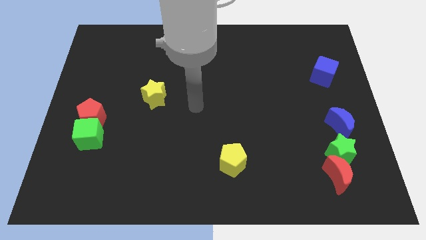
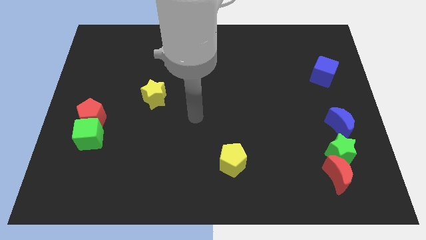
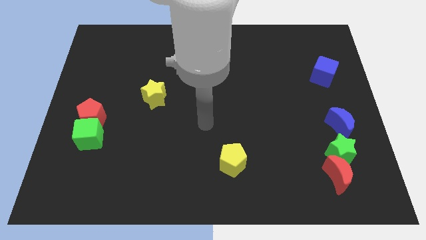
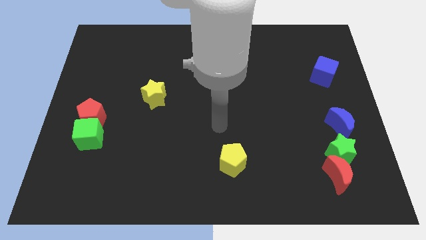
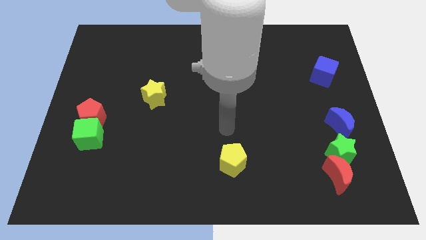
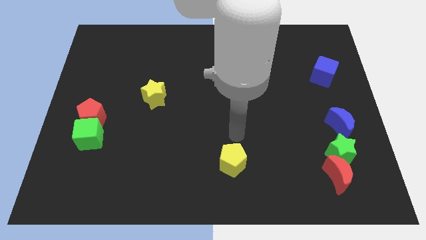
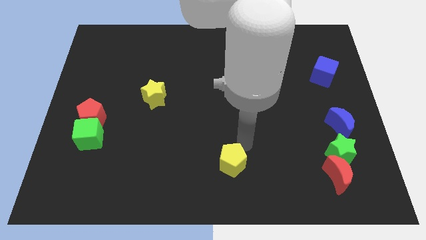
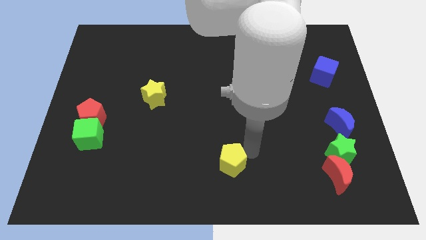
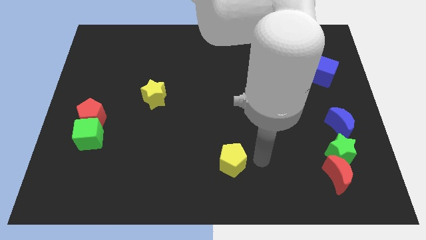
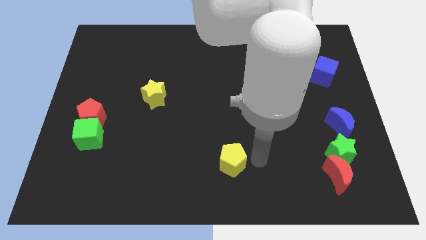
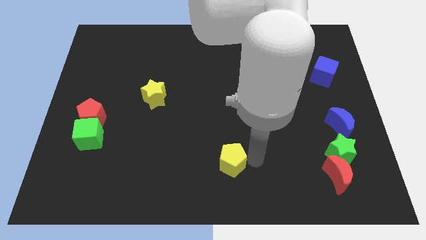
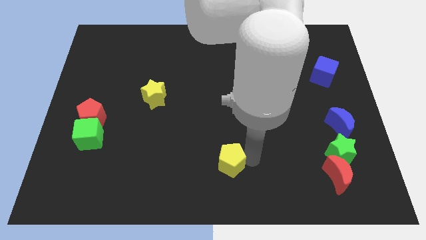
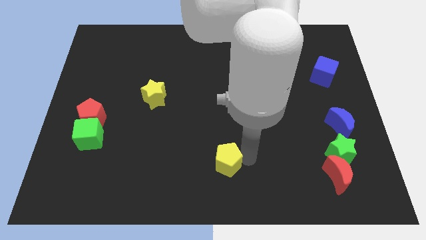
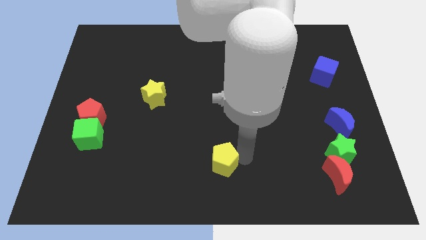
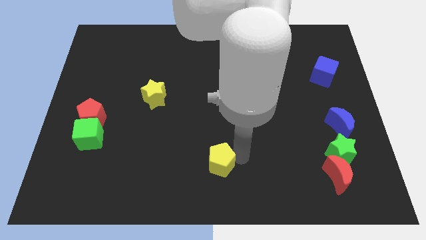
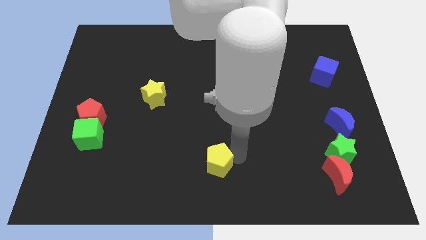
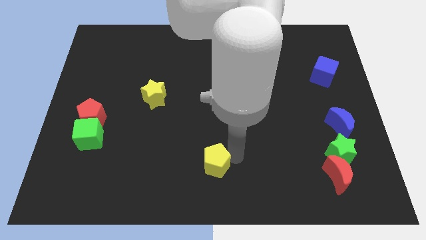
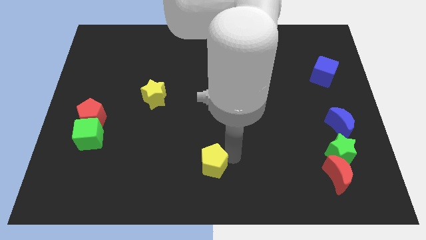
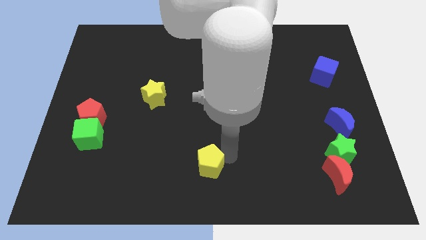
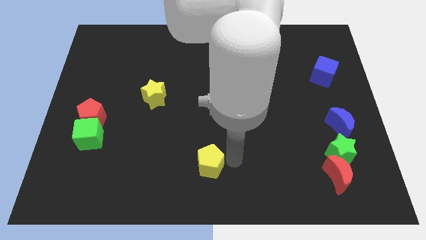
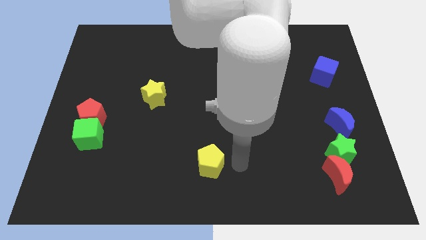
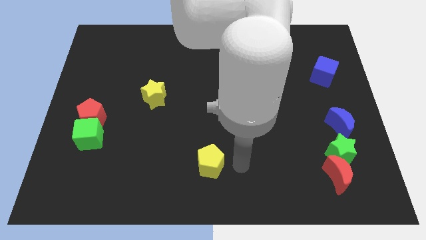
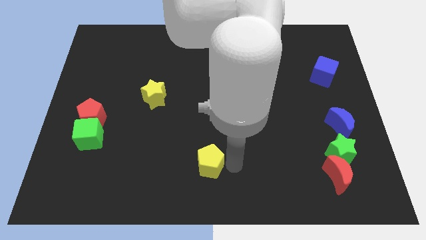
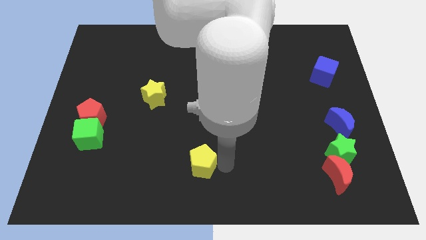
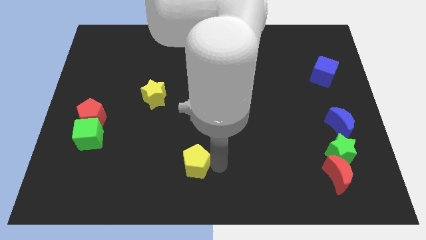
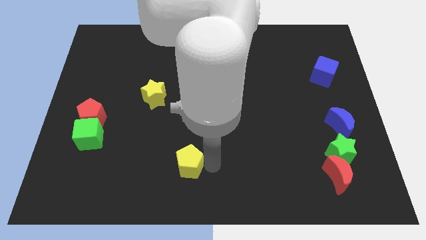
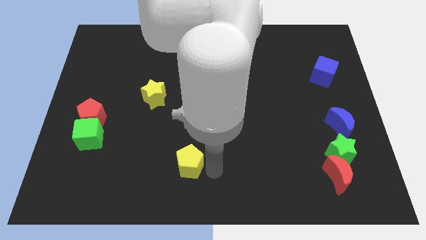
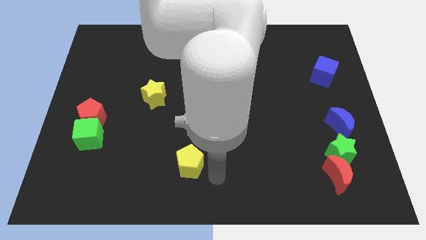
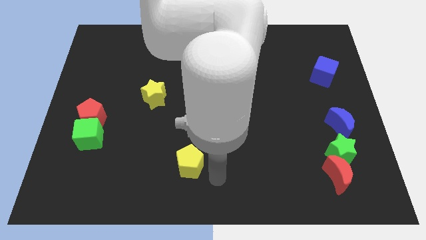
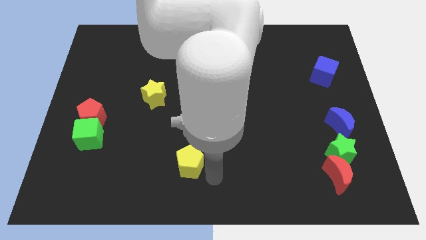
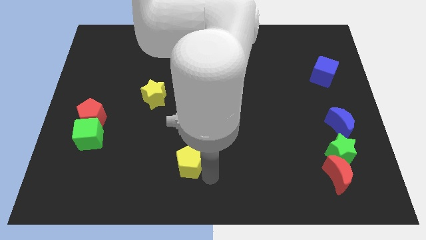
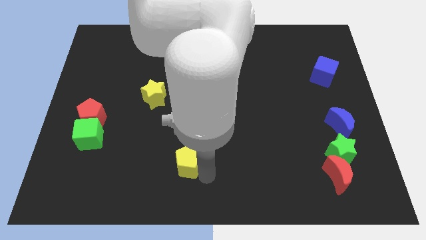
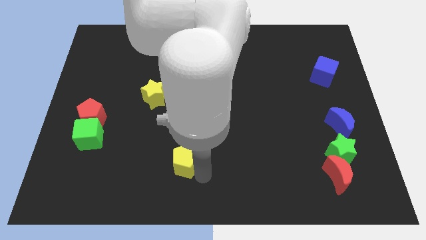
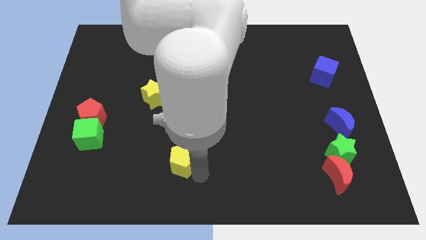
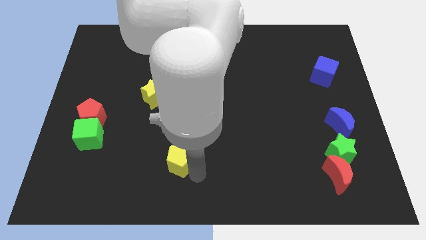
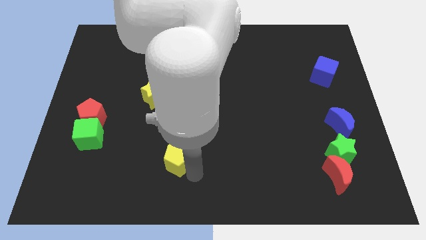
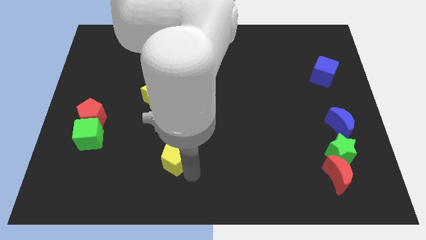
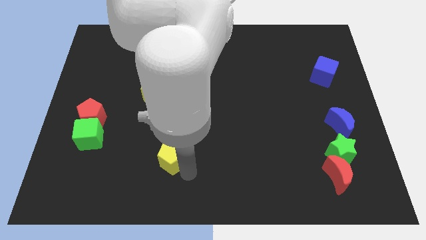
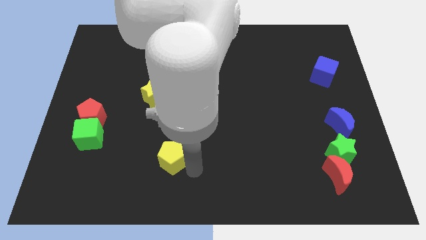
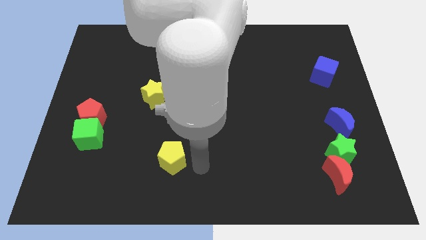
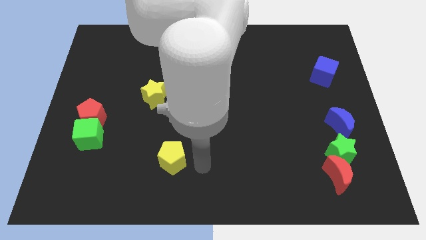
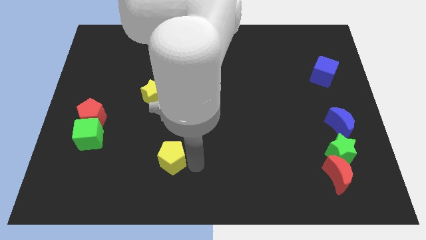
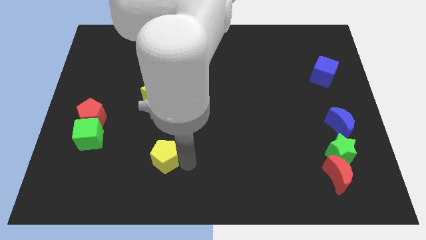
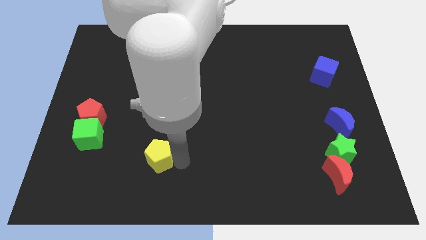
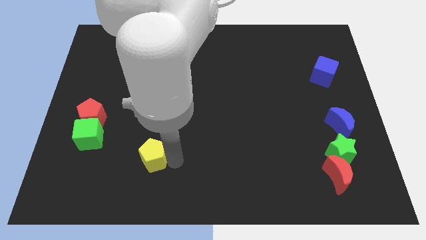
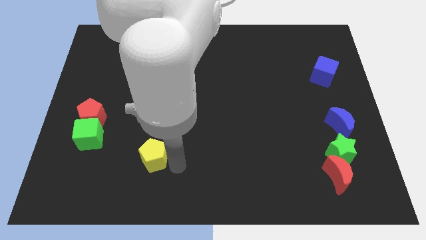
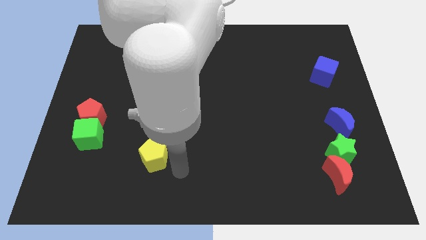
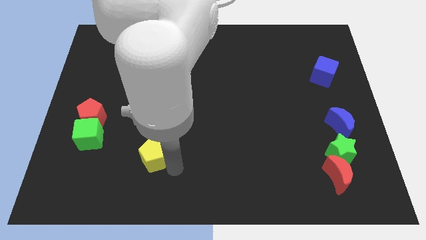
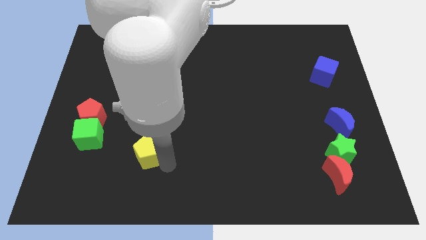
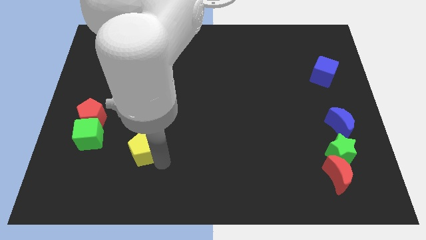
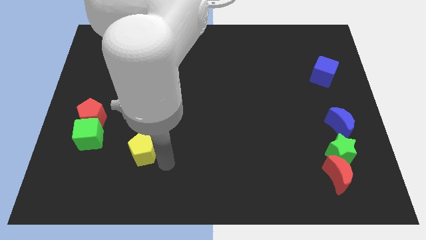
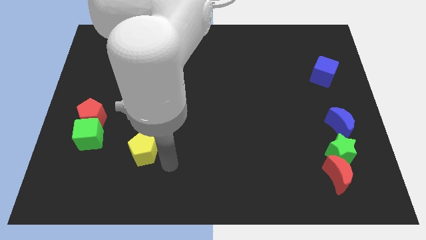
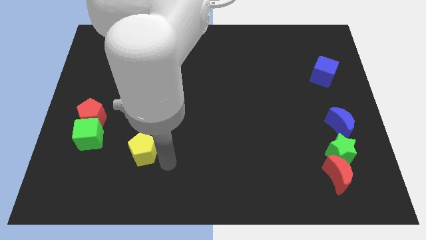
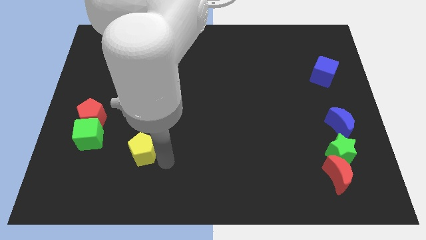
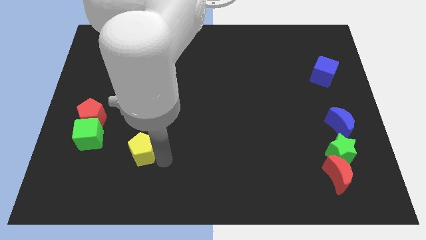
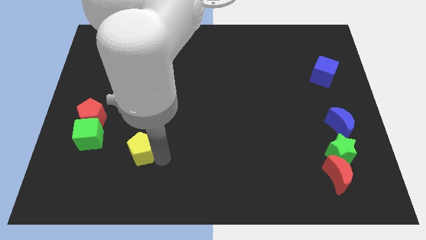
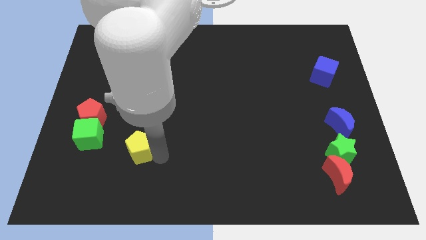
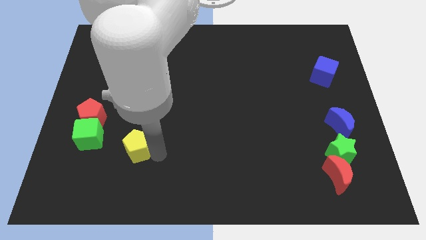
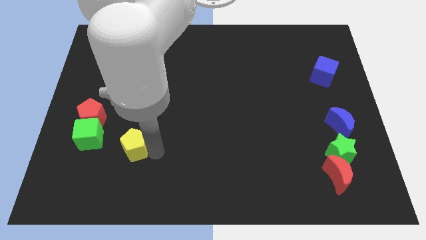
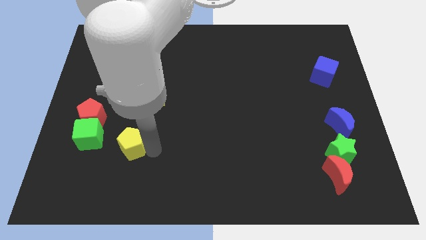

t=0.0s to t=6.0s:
slide the yellow pentagon to the bottom right side of the red pentagon

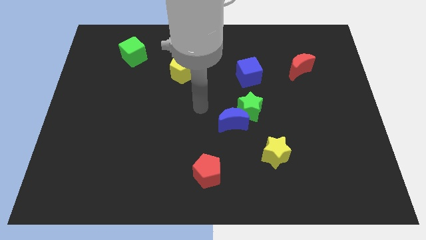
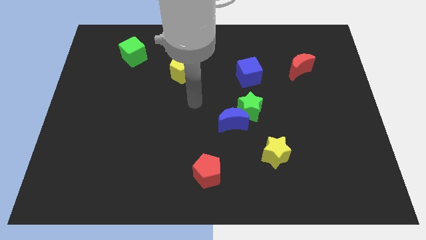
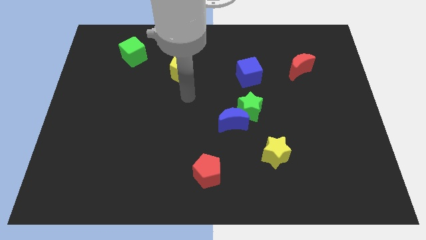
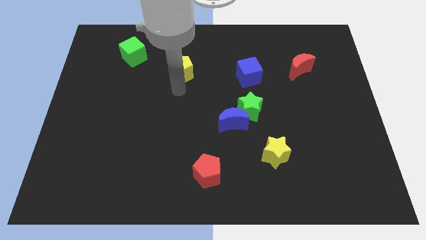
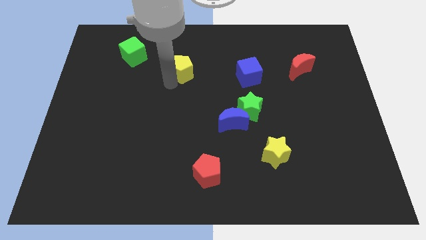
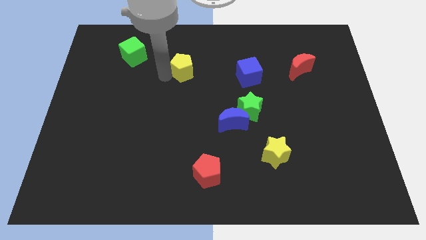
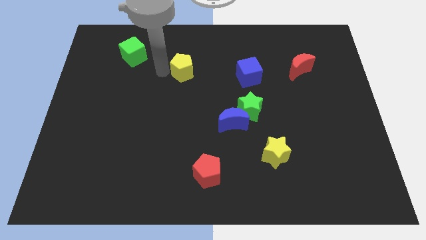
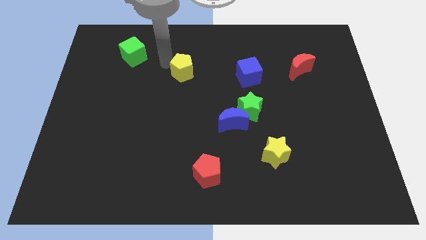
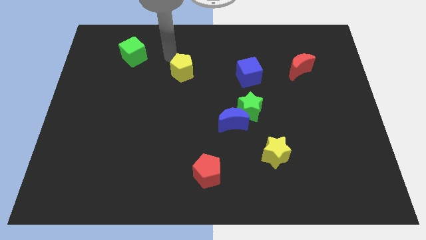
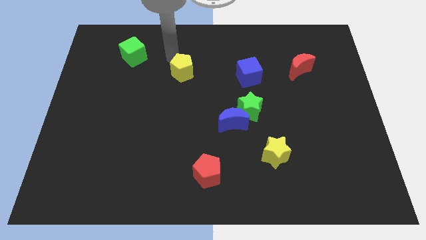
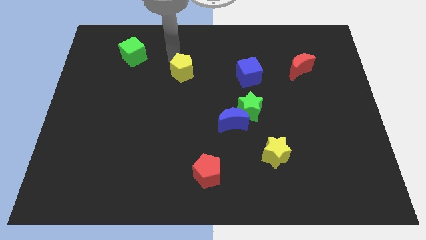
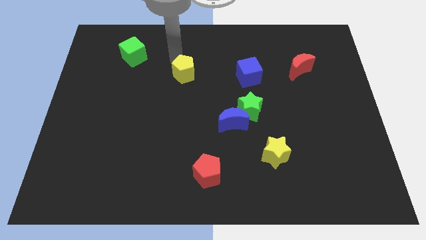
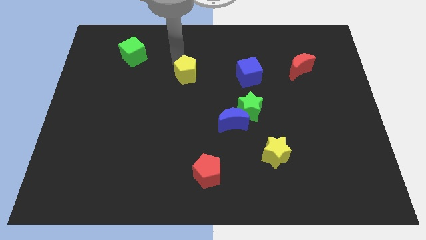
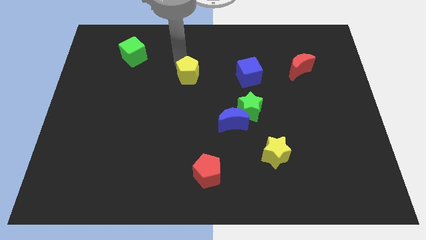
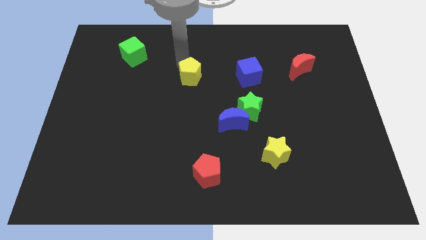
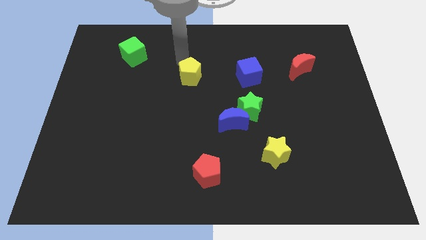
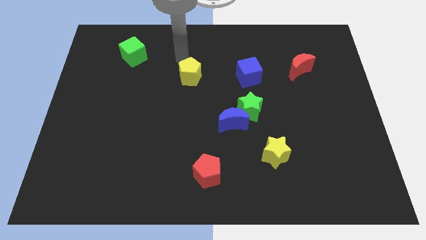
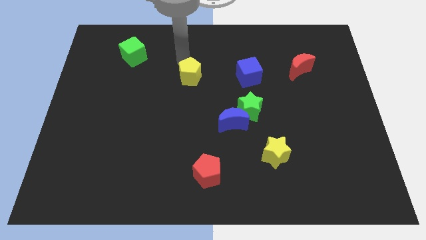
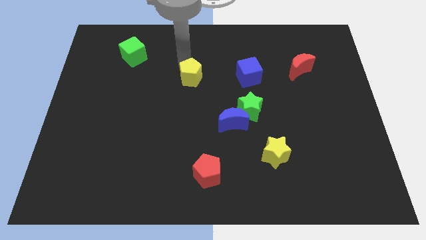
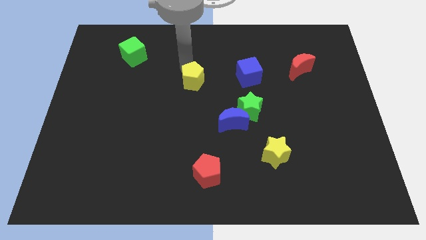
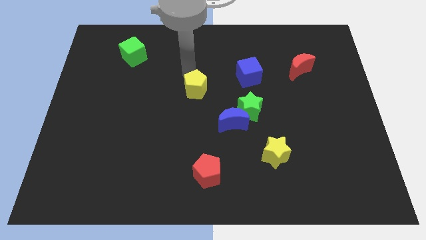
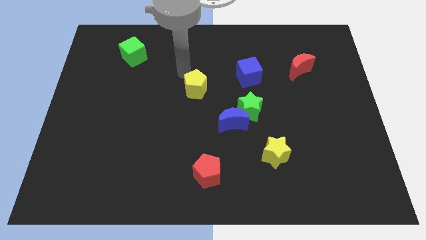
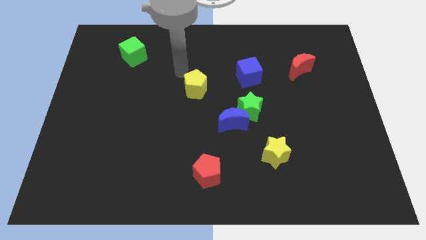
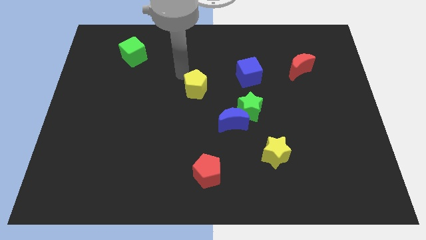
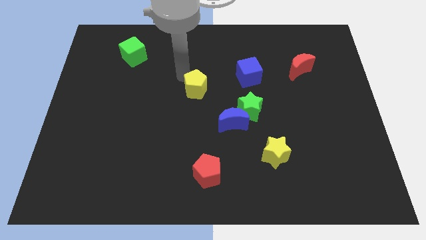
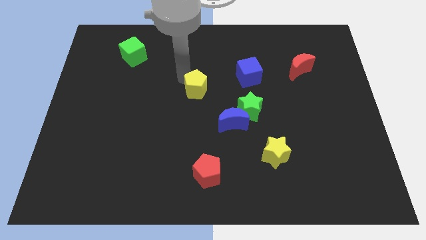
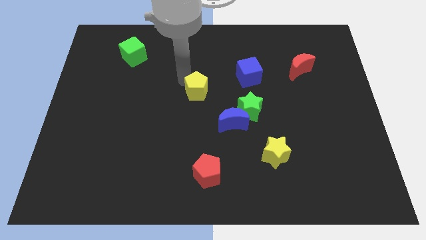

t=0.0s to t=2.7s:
slide the yellow pentagon to the top left of the blue moon
